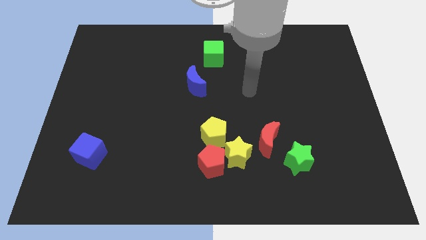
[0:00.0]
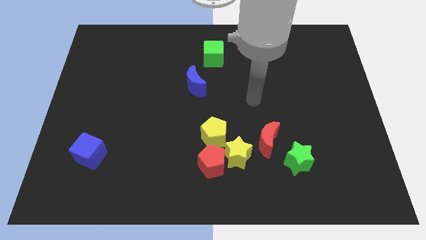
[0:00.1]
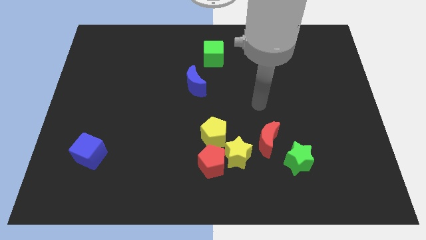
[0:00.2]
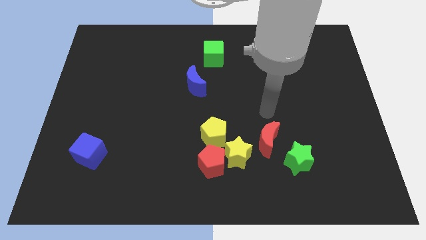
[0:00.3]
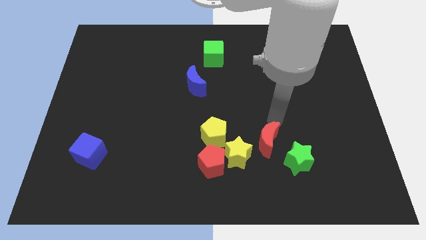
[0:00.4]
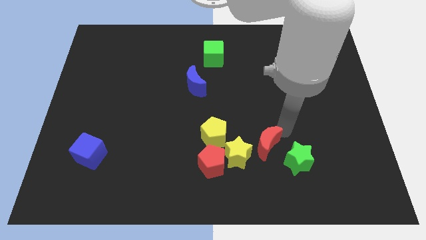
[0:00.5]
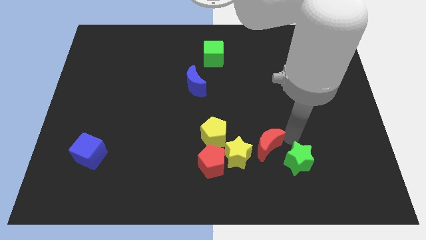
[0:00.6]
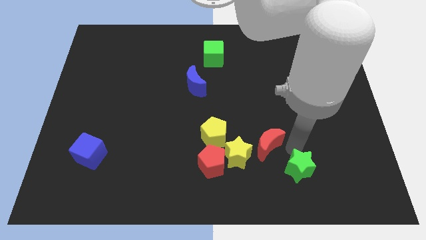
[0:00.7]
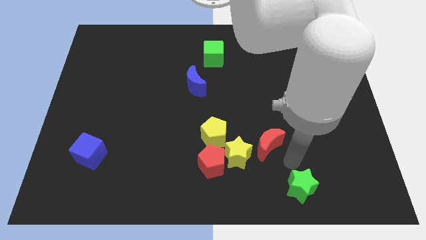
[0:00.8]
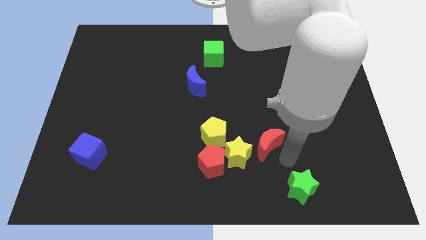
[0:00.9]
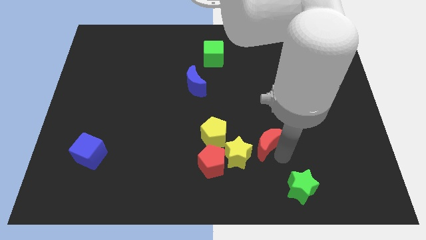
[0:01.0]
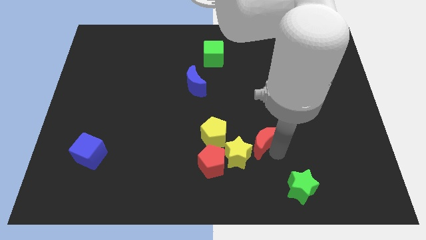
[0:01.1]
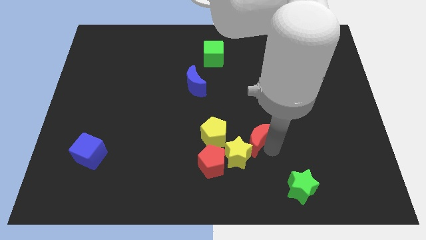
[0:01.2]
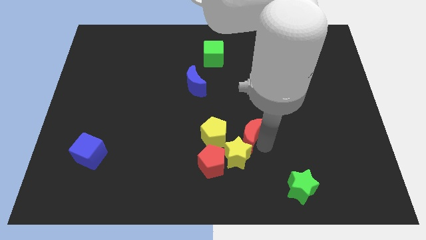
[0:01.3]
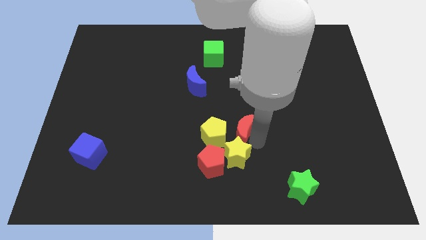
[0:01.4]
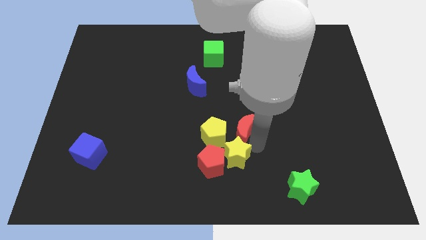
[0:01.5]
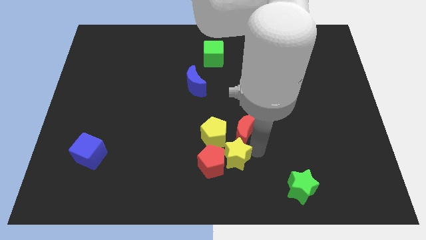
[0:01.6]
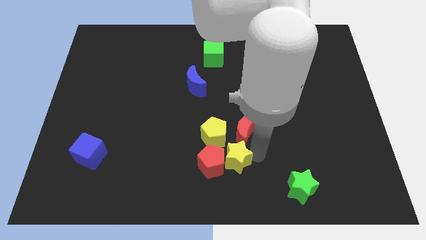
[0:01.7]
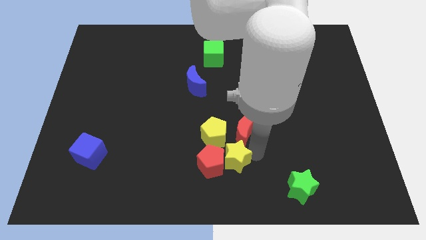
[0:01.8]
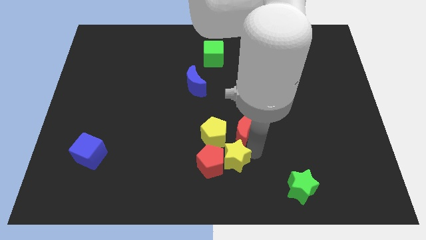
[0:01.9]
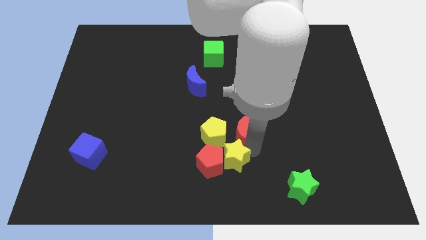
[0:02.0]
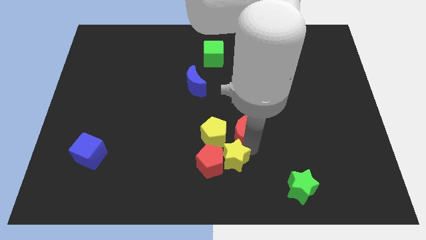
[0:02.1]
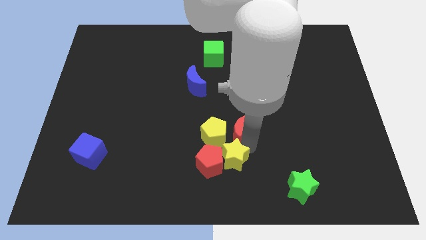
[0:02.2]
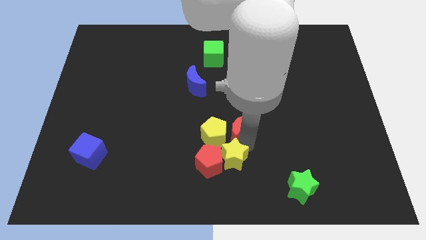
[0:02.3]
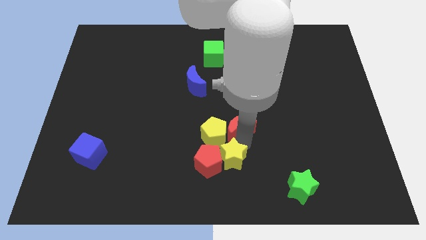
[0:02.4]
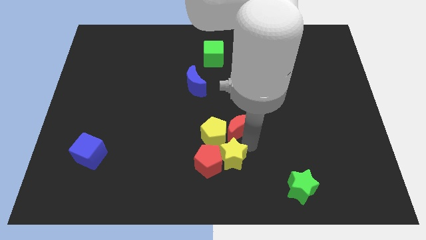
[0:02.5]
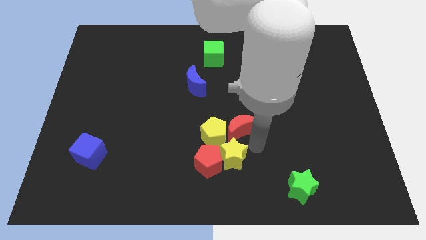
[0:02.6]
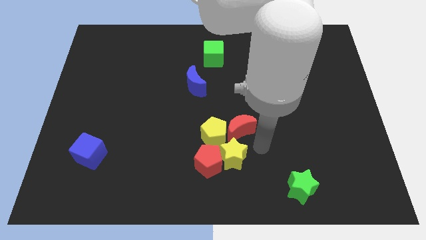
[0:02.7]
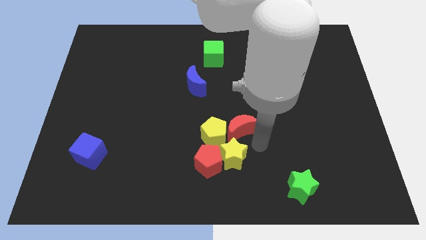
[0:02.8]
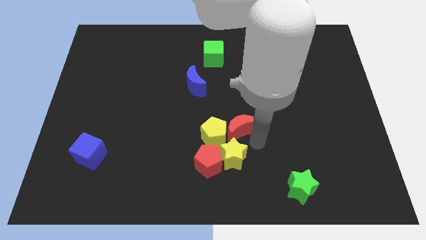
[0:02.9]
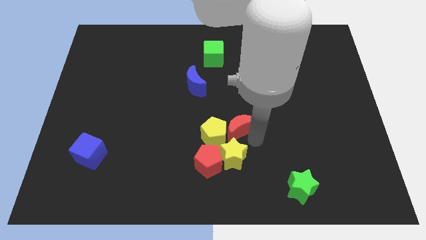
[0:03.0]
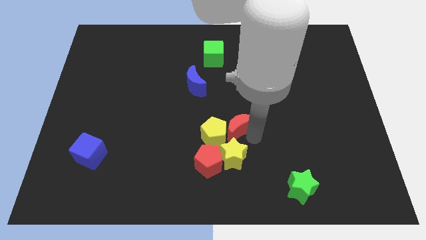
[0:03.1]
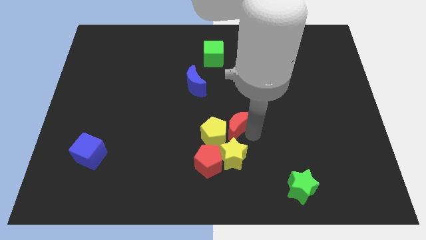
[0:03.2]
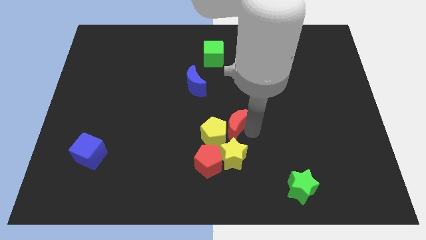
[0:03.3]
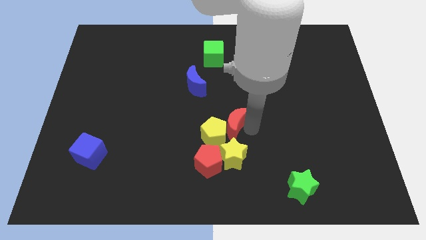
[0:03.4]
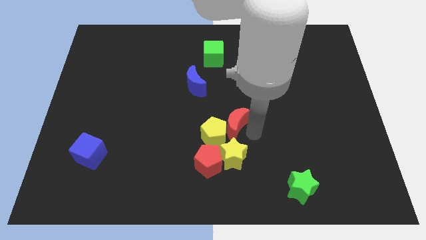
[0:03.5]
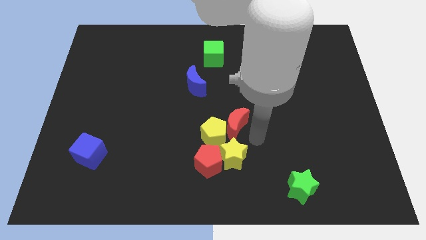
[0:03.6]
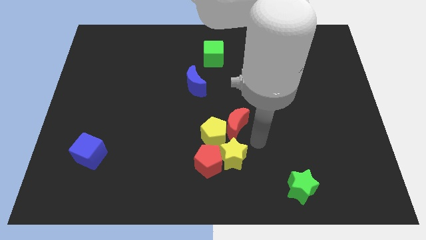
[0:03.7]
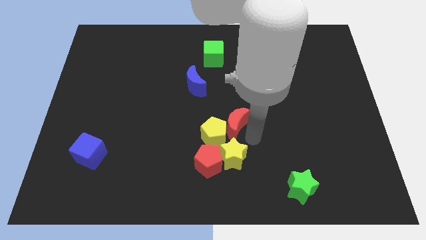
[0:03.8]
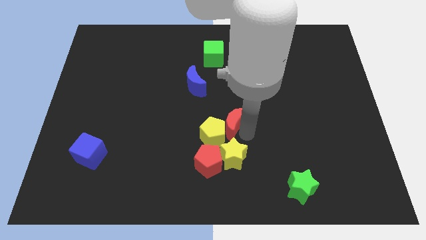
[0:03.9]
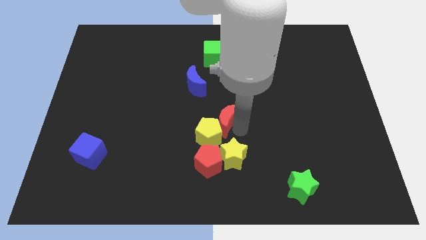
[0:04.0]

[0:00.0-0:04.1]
move the red moon to the top of the yellow pentagon

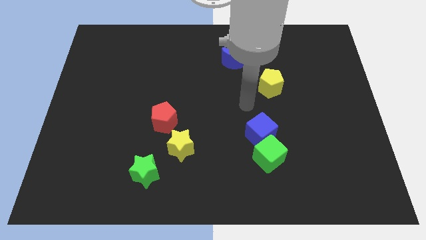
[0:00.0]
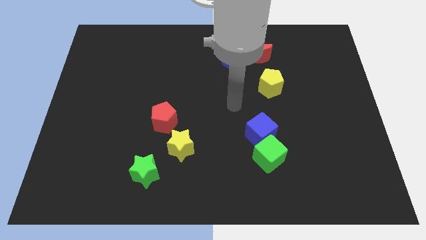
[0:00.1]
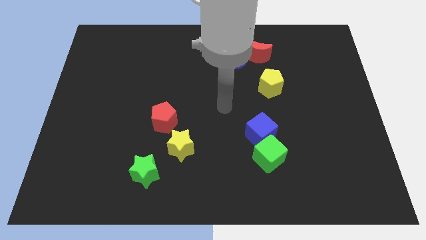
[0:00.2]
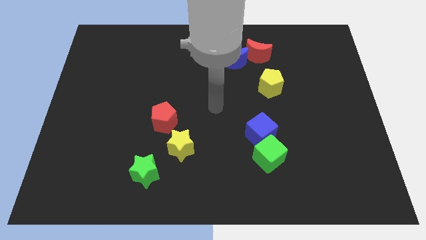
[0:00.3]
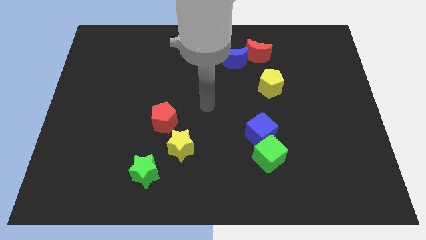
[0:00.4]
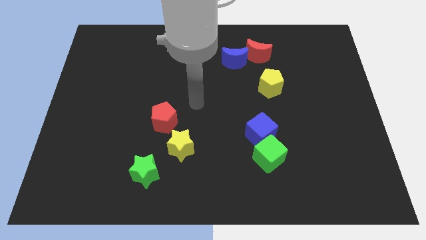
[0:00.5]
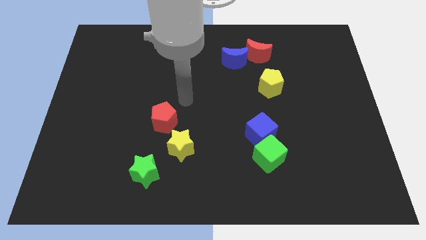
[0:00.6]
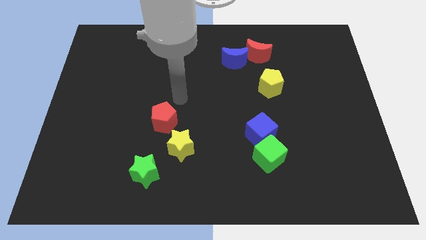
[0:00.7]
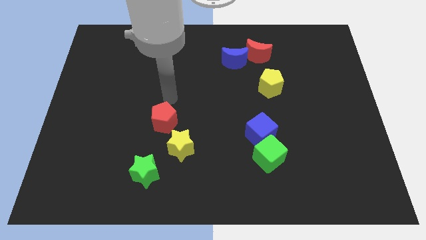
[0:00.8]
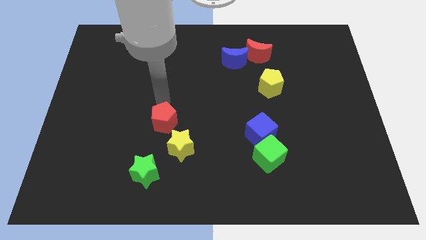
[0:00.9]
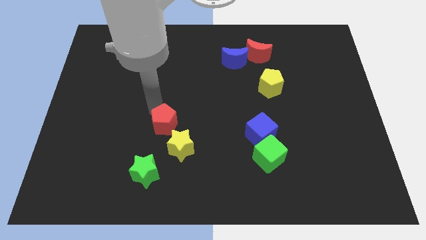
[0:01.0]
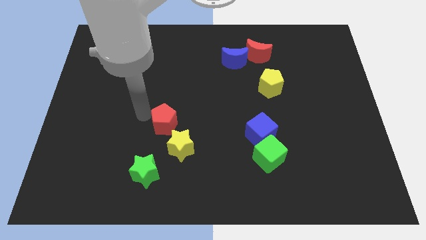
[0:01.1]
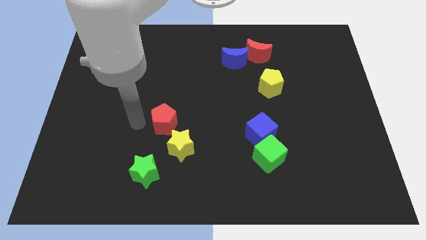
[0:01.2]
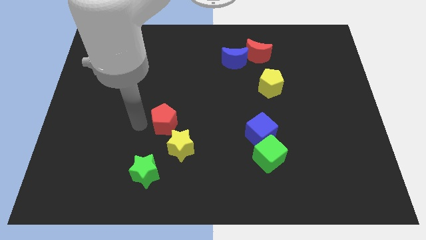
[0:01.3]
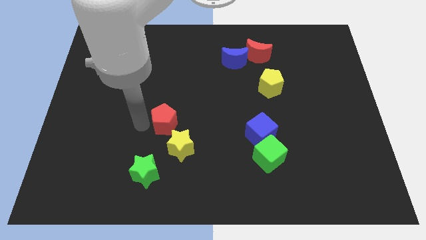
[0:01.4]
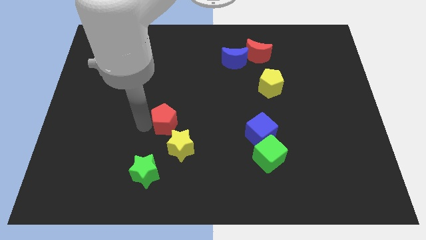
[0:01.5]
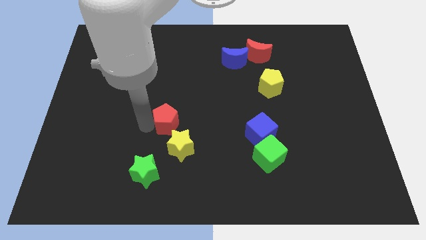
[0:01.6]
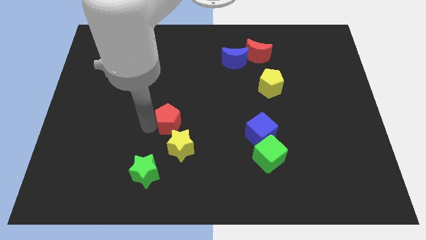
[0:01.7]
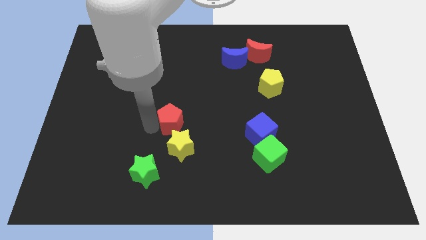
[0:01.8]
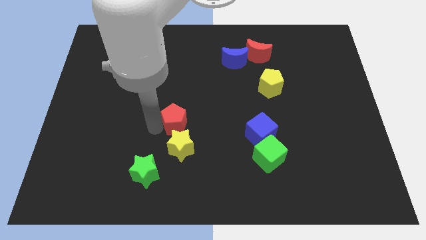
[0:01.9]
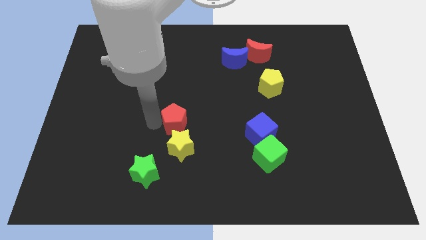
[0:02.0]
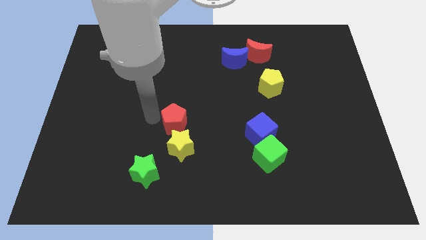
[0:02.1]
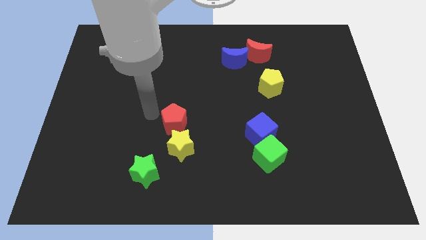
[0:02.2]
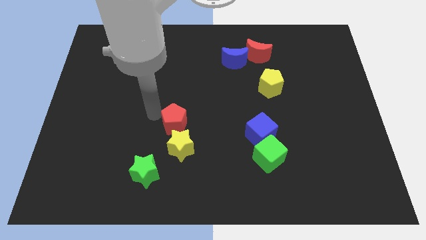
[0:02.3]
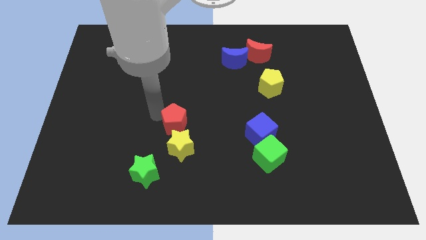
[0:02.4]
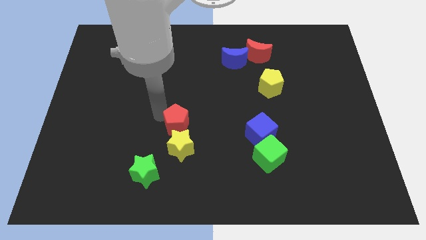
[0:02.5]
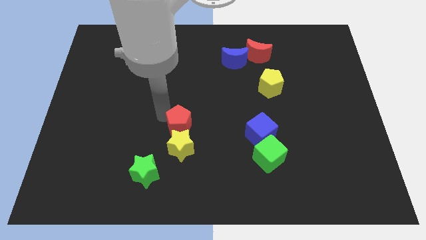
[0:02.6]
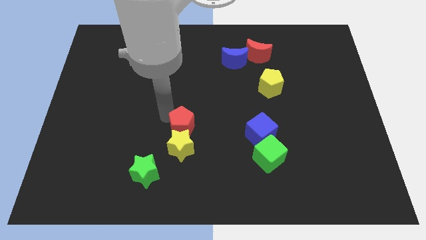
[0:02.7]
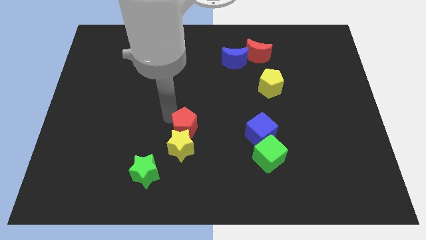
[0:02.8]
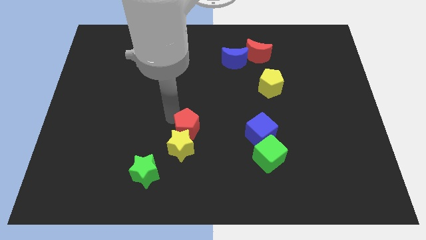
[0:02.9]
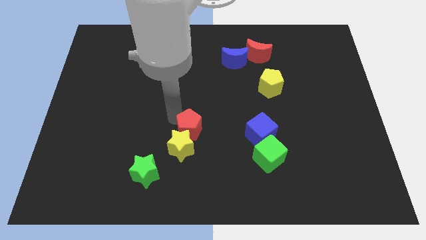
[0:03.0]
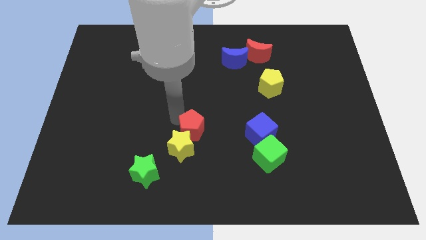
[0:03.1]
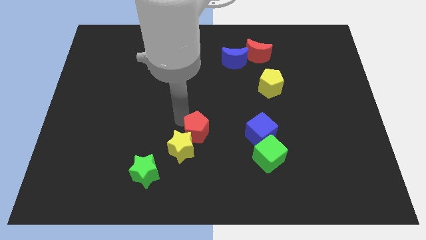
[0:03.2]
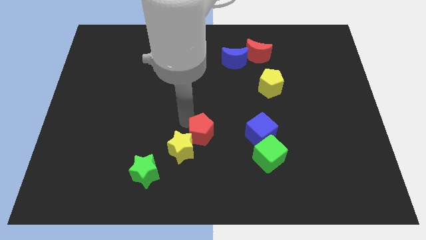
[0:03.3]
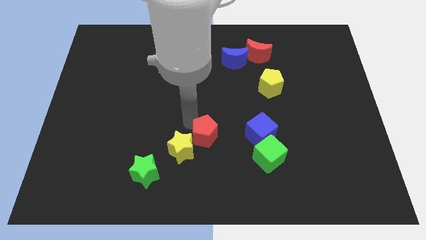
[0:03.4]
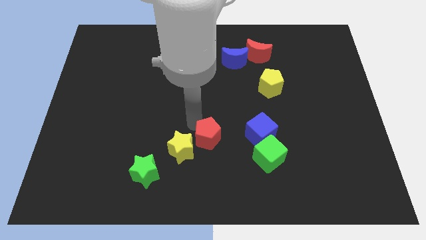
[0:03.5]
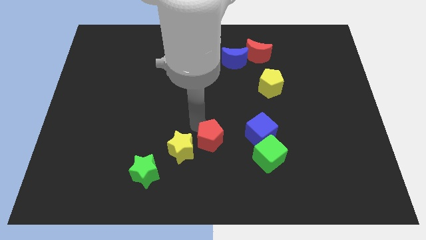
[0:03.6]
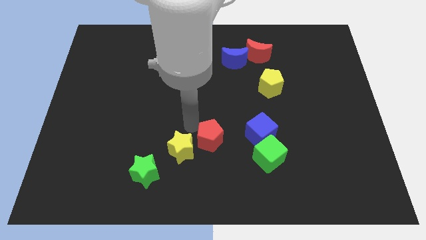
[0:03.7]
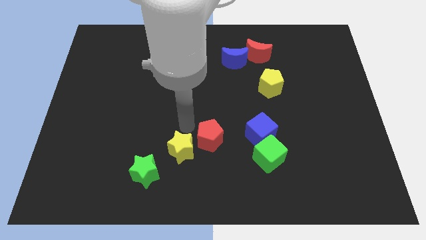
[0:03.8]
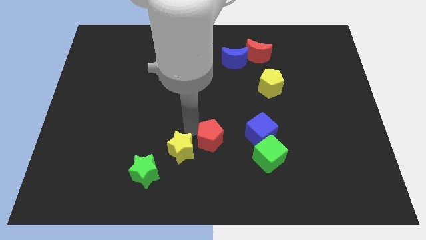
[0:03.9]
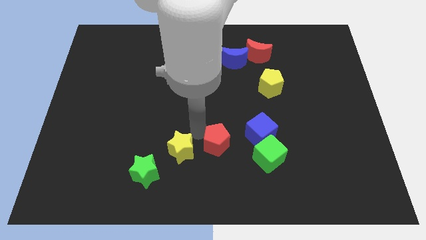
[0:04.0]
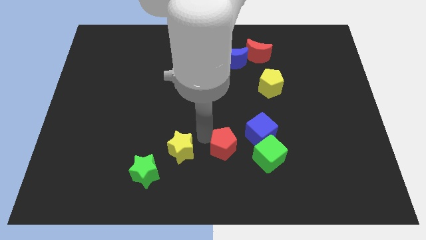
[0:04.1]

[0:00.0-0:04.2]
put the red pentagon to the bottom left of the blue cube
